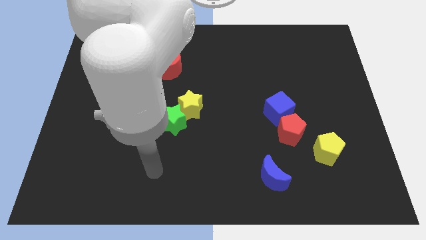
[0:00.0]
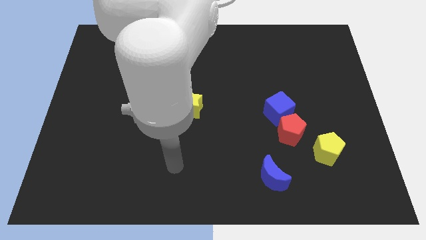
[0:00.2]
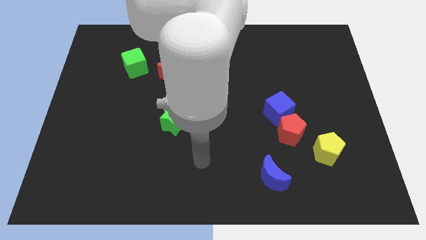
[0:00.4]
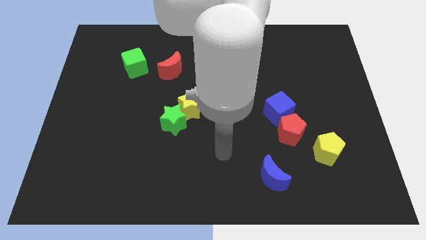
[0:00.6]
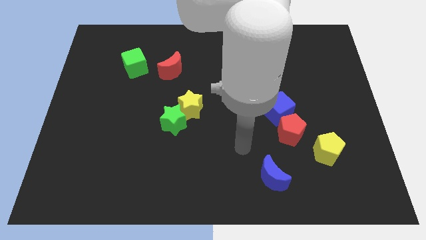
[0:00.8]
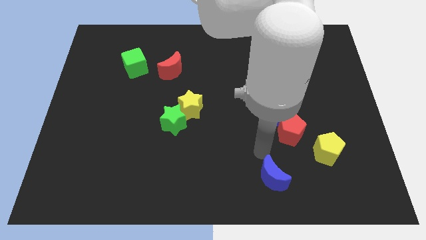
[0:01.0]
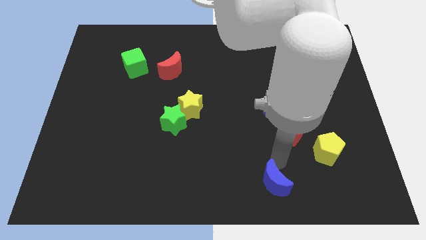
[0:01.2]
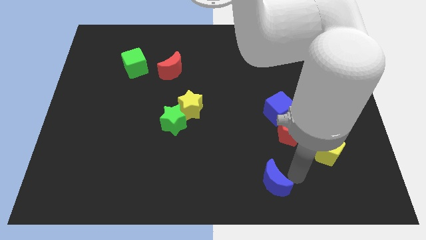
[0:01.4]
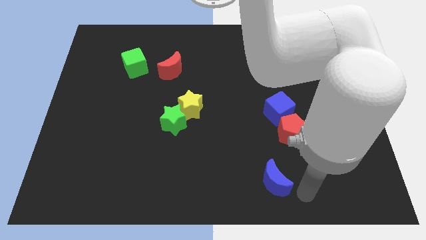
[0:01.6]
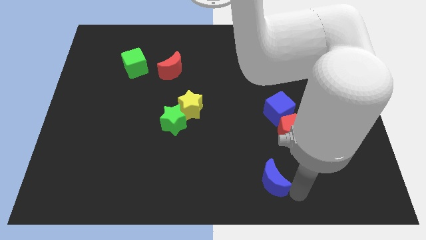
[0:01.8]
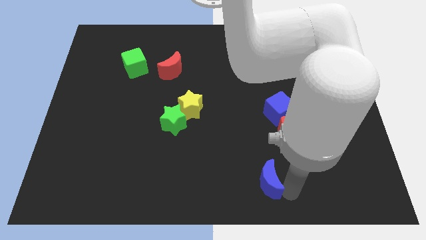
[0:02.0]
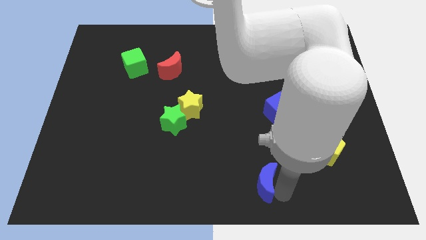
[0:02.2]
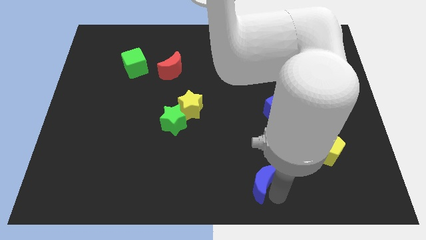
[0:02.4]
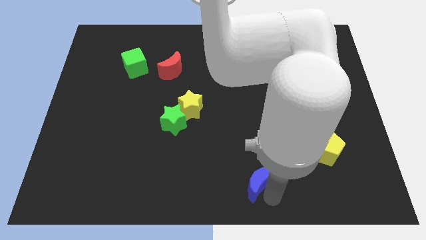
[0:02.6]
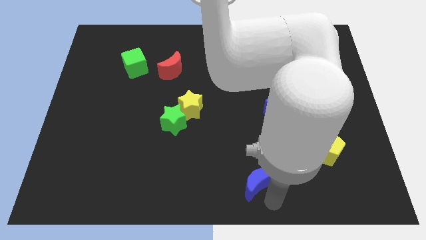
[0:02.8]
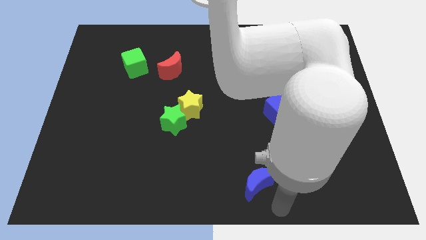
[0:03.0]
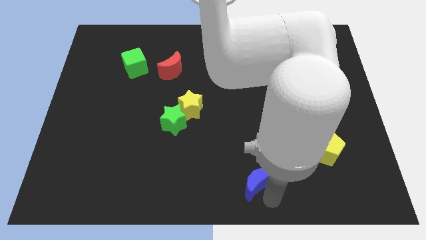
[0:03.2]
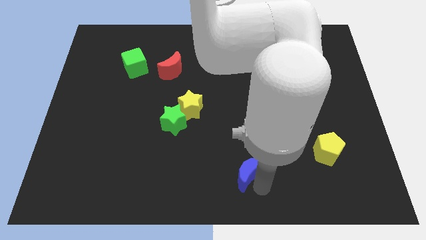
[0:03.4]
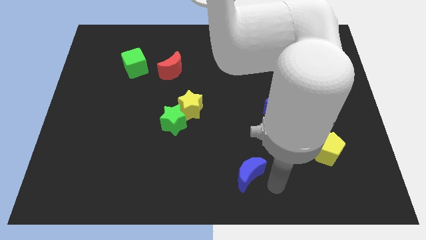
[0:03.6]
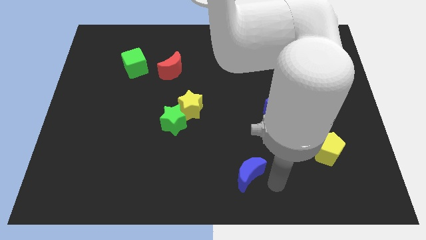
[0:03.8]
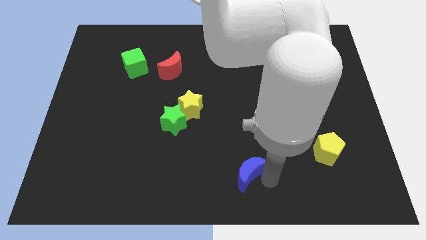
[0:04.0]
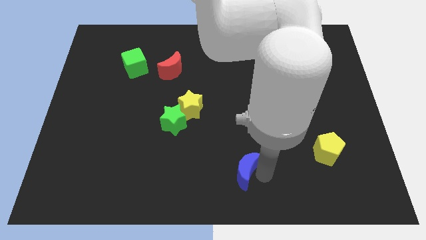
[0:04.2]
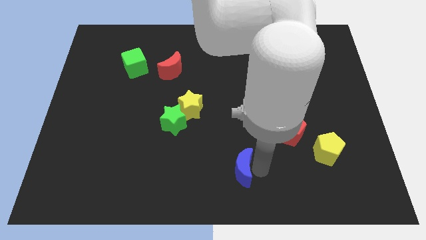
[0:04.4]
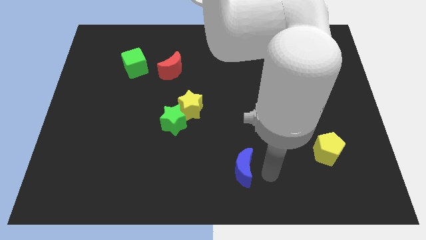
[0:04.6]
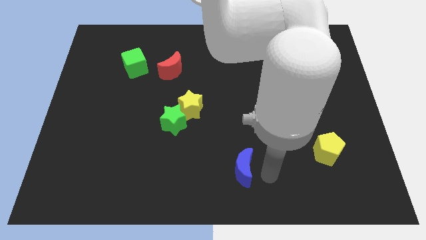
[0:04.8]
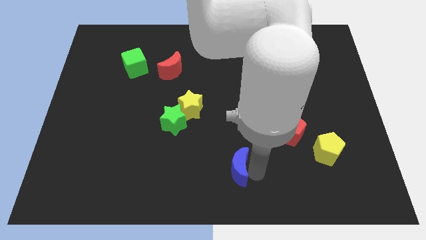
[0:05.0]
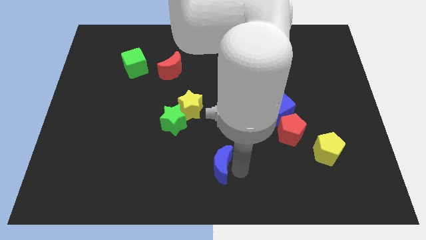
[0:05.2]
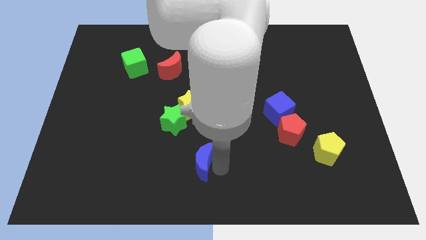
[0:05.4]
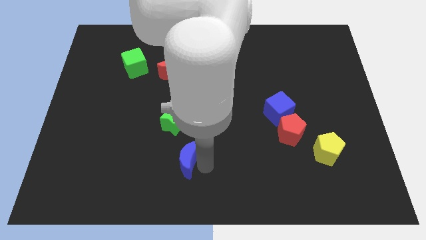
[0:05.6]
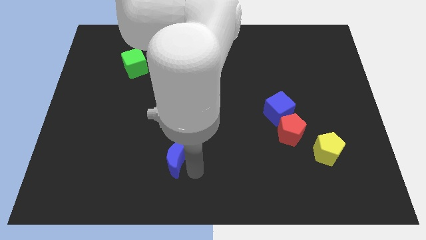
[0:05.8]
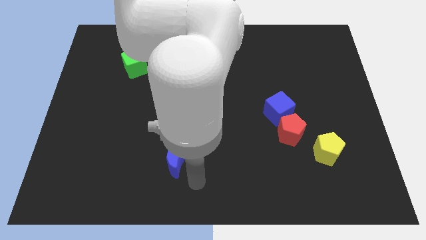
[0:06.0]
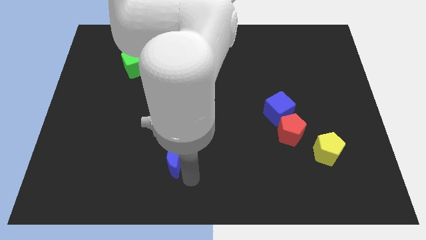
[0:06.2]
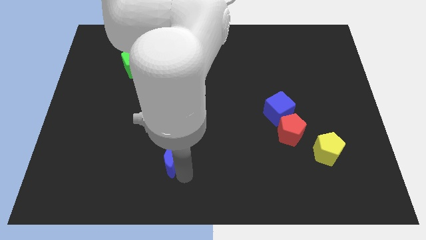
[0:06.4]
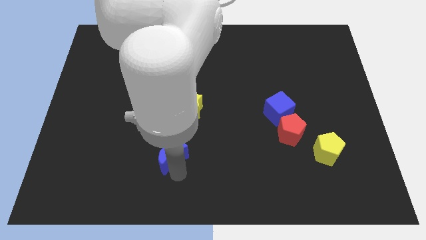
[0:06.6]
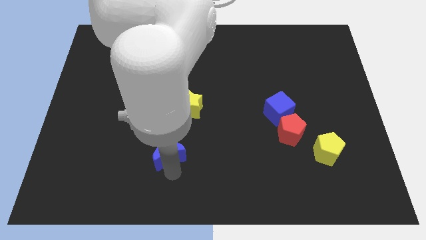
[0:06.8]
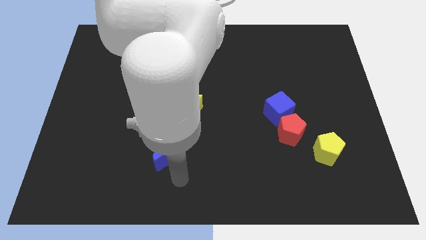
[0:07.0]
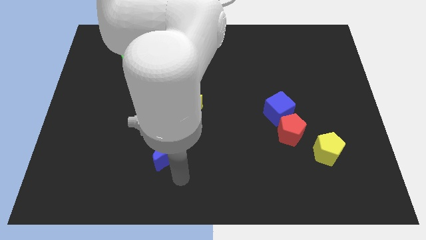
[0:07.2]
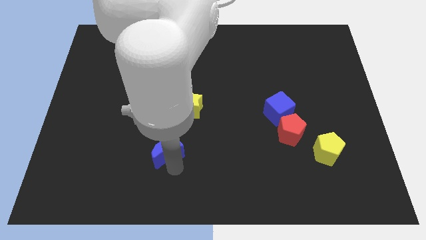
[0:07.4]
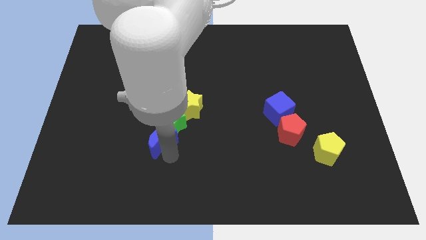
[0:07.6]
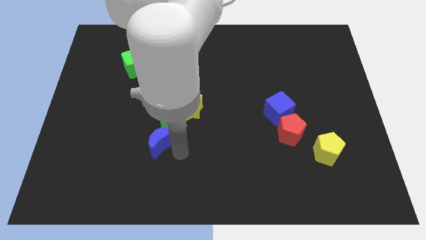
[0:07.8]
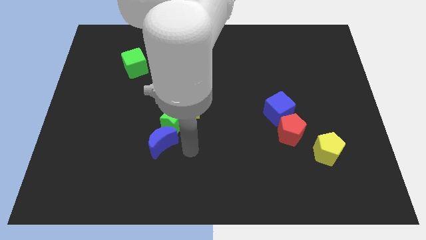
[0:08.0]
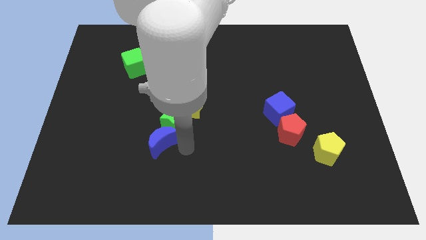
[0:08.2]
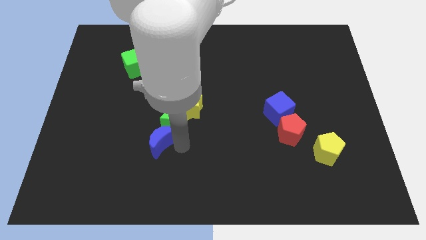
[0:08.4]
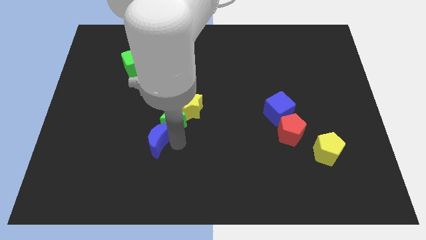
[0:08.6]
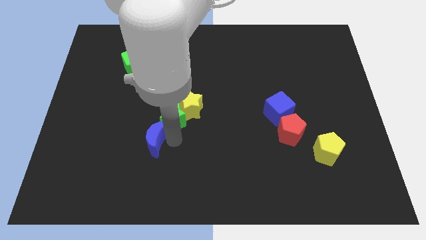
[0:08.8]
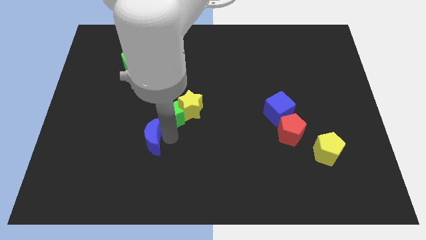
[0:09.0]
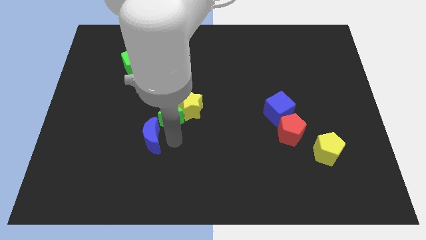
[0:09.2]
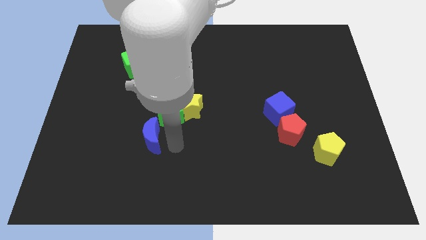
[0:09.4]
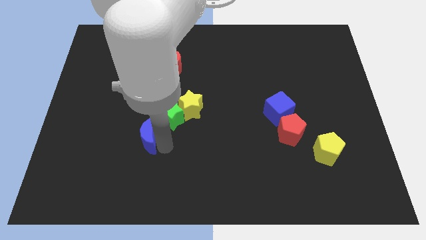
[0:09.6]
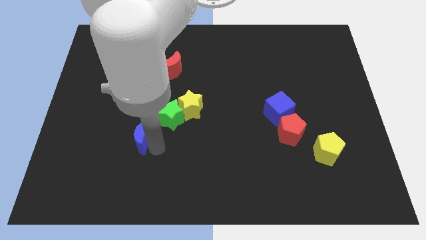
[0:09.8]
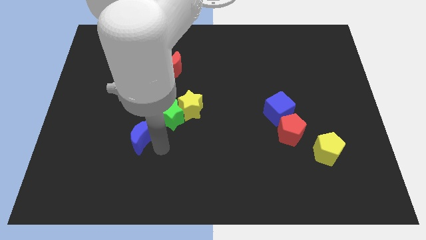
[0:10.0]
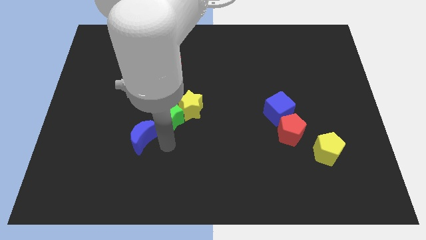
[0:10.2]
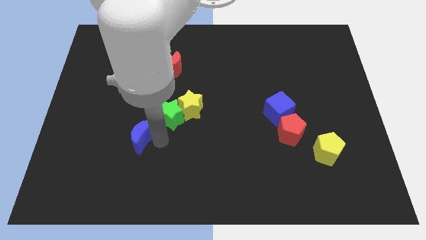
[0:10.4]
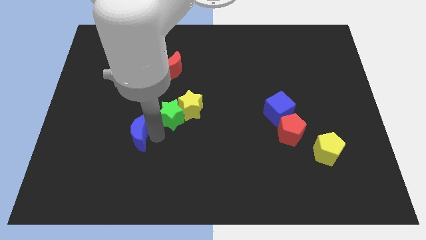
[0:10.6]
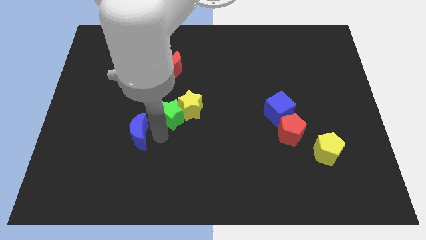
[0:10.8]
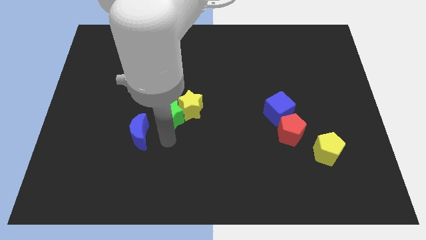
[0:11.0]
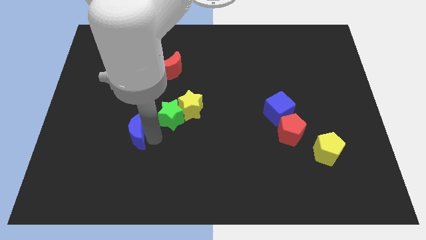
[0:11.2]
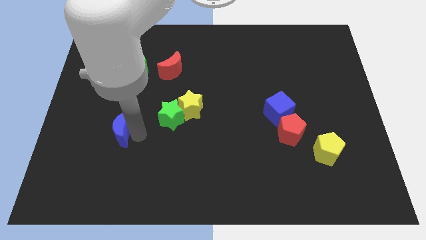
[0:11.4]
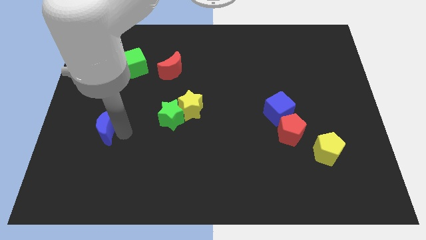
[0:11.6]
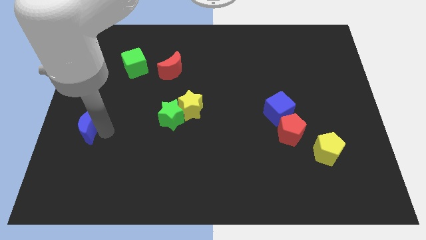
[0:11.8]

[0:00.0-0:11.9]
push the blue moon to the center left
